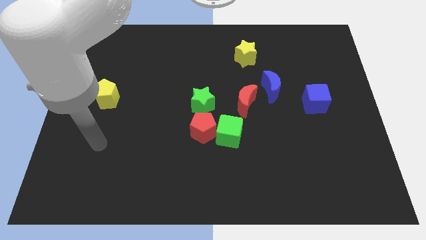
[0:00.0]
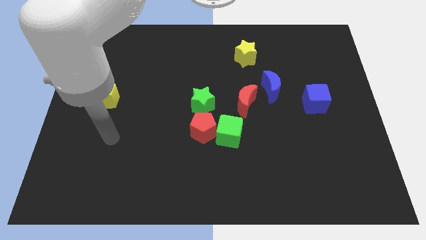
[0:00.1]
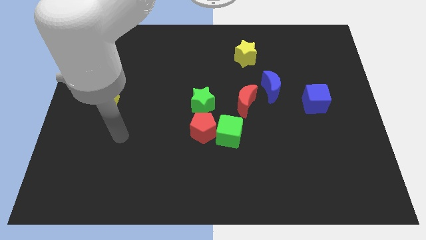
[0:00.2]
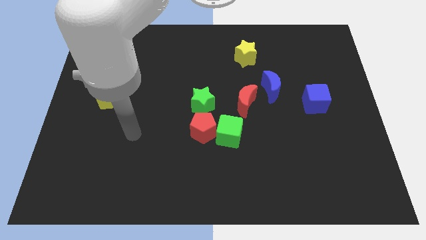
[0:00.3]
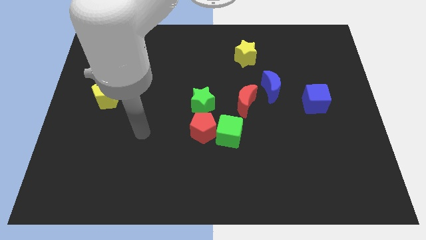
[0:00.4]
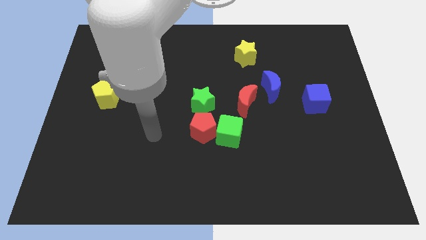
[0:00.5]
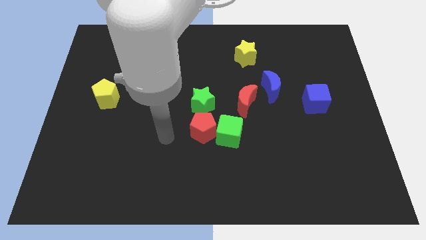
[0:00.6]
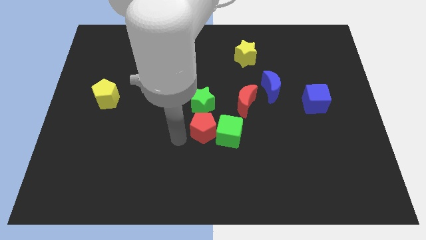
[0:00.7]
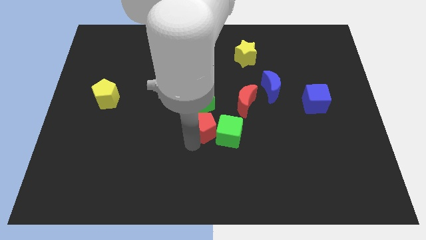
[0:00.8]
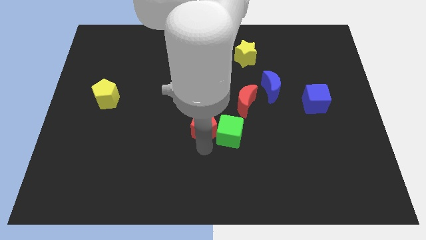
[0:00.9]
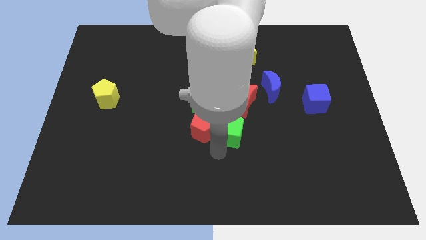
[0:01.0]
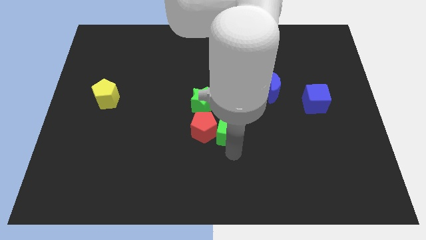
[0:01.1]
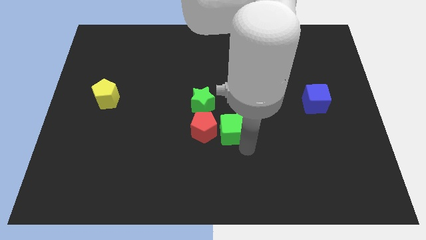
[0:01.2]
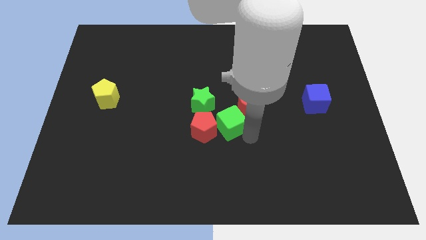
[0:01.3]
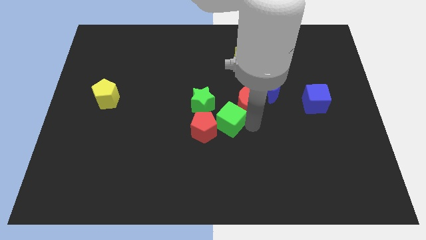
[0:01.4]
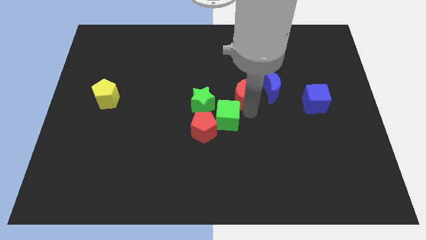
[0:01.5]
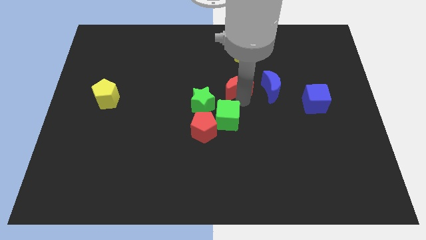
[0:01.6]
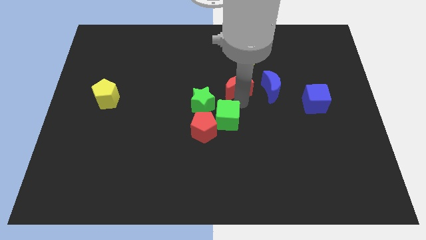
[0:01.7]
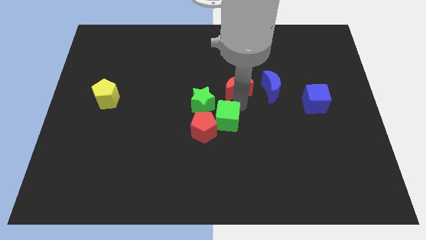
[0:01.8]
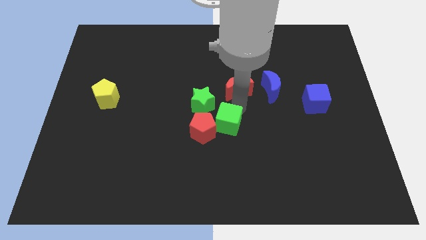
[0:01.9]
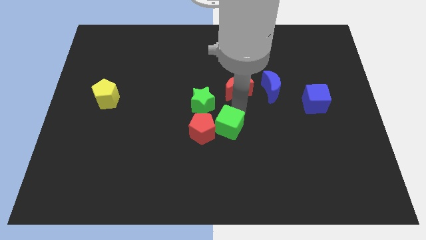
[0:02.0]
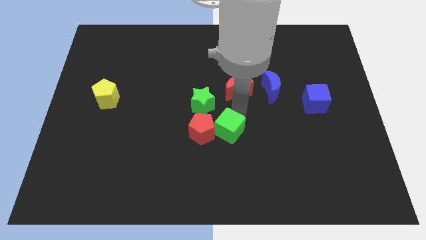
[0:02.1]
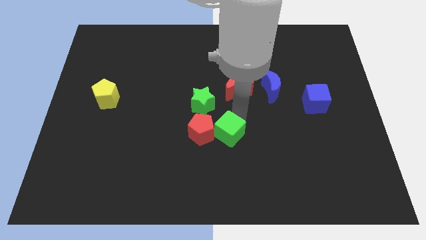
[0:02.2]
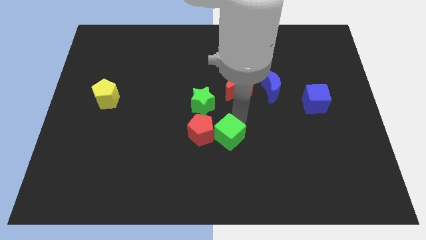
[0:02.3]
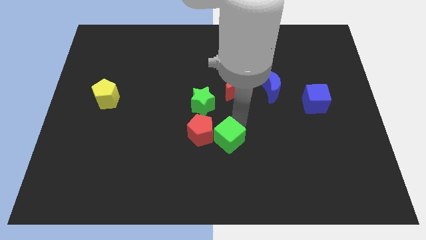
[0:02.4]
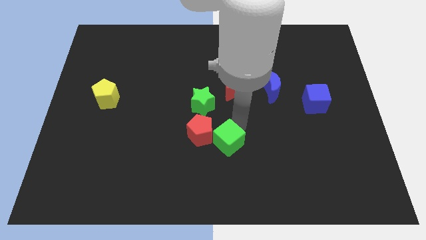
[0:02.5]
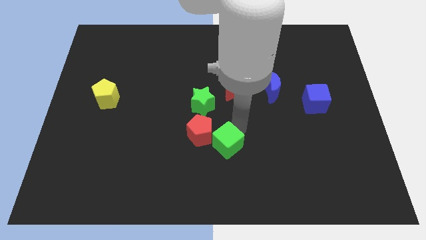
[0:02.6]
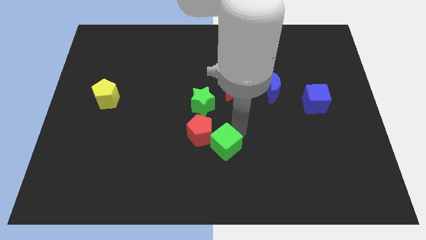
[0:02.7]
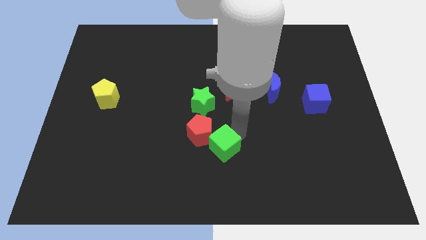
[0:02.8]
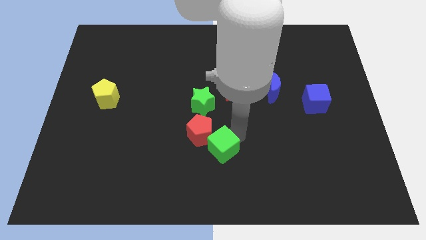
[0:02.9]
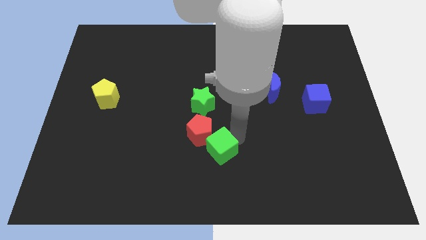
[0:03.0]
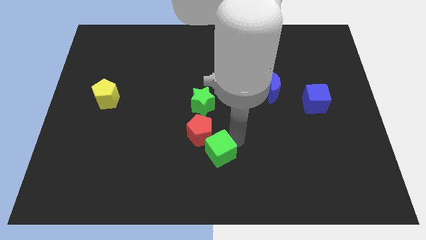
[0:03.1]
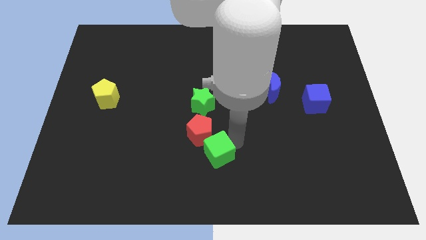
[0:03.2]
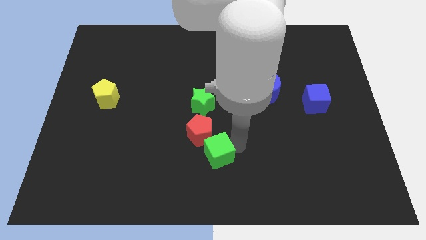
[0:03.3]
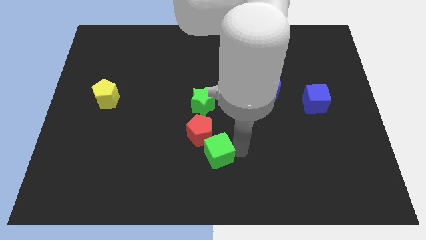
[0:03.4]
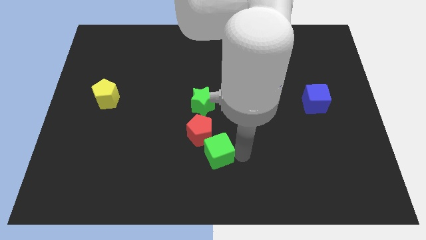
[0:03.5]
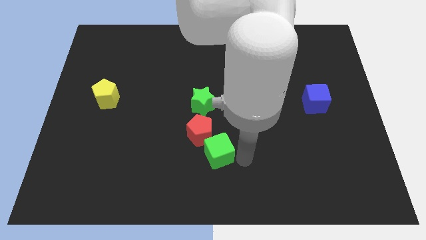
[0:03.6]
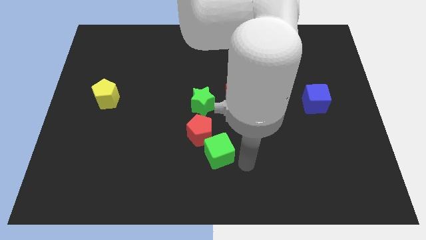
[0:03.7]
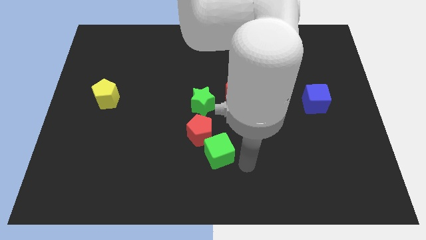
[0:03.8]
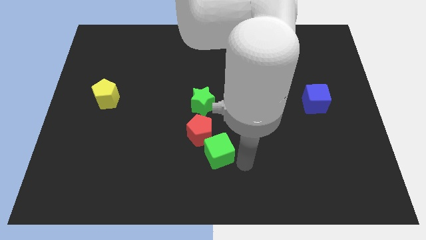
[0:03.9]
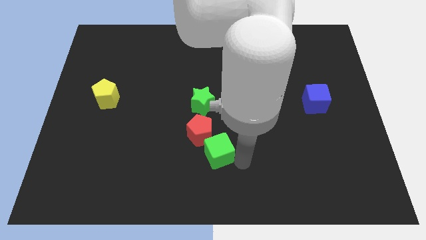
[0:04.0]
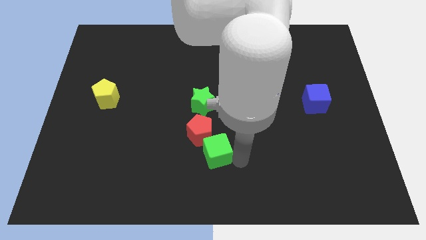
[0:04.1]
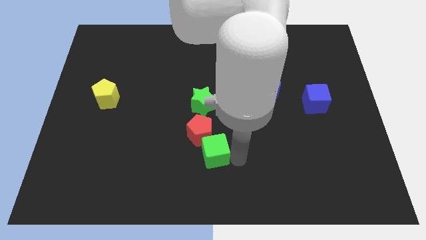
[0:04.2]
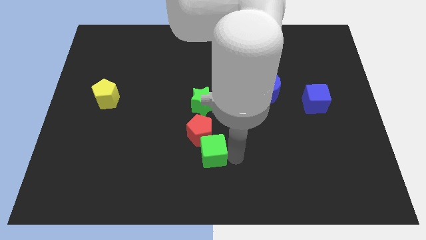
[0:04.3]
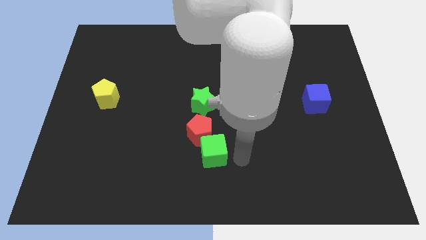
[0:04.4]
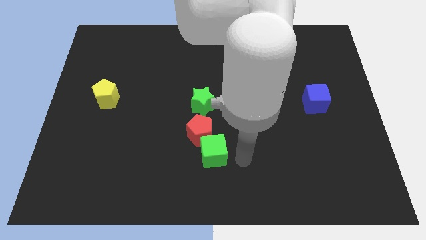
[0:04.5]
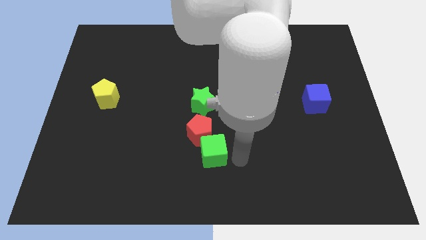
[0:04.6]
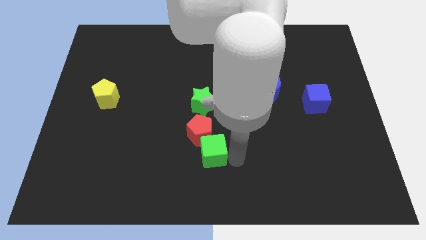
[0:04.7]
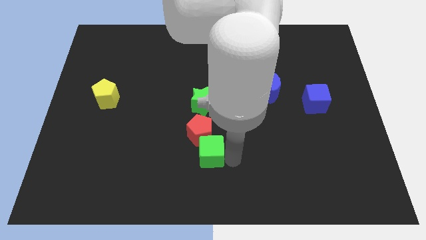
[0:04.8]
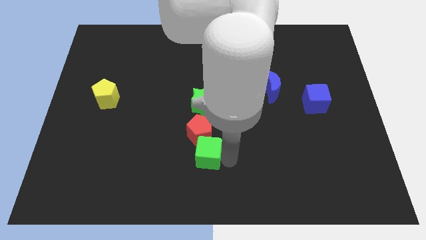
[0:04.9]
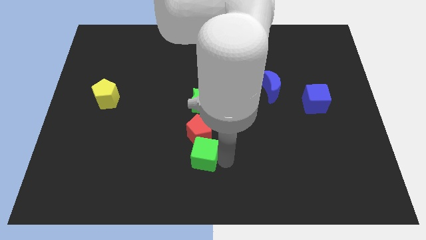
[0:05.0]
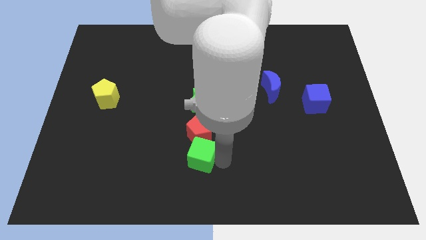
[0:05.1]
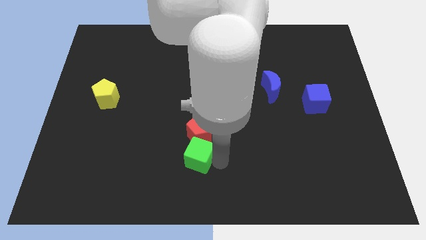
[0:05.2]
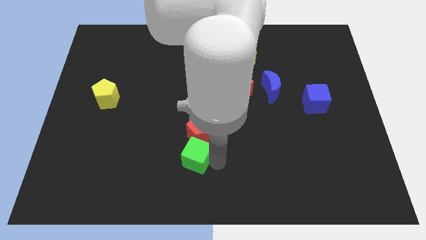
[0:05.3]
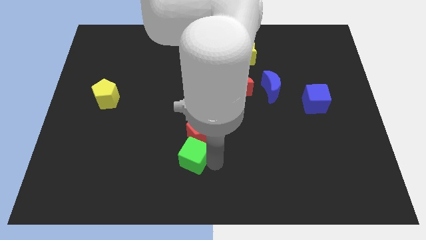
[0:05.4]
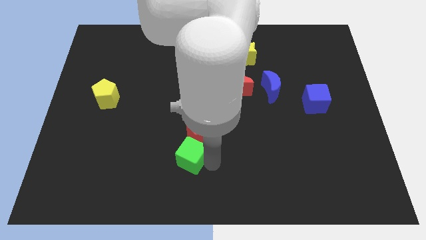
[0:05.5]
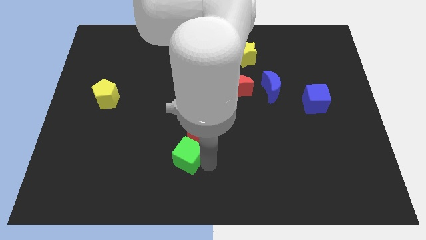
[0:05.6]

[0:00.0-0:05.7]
move the green cube to the left slightly

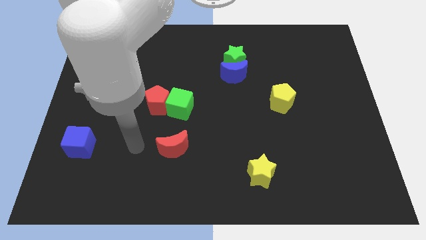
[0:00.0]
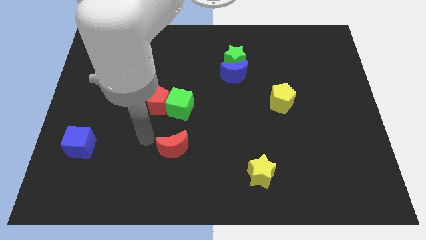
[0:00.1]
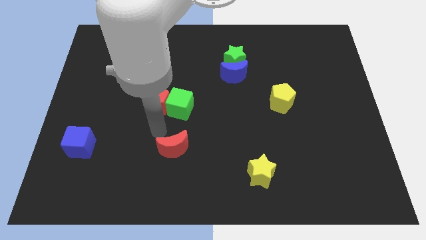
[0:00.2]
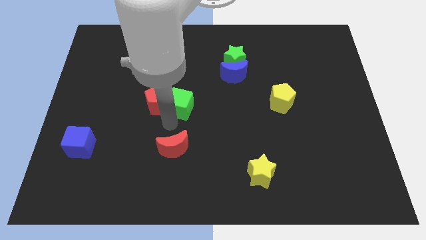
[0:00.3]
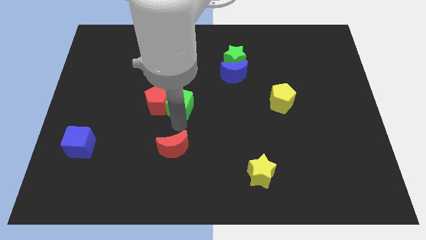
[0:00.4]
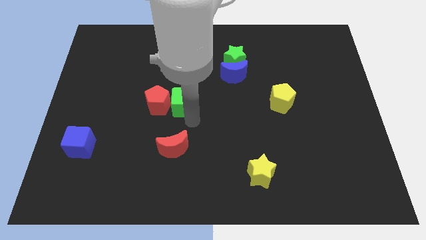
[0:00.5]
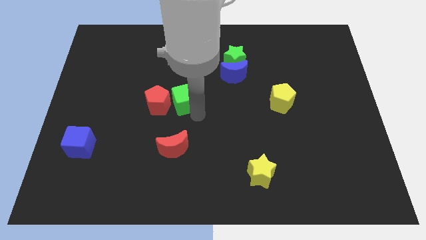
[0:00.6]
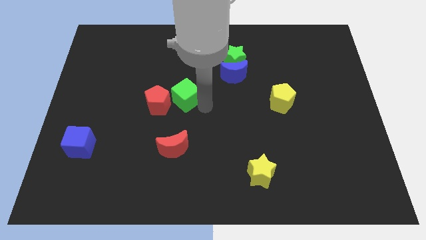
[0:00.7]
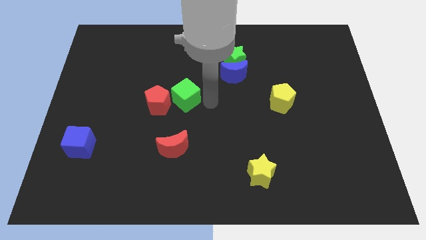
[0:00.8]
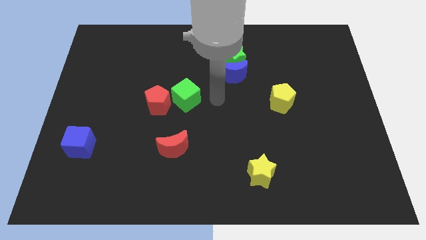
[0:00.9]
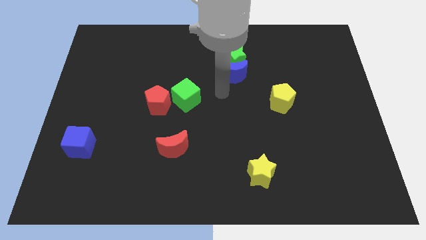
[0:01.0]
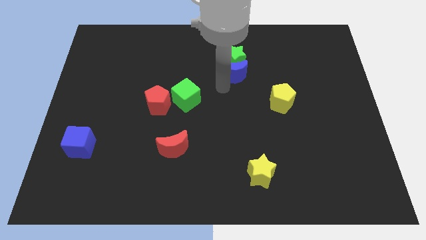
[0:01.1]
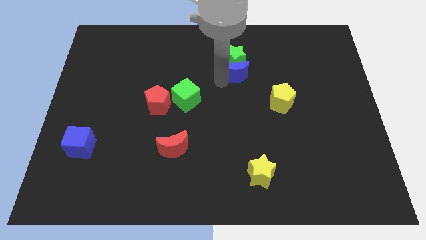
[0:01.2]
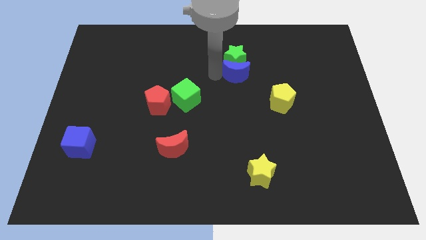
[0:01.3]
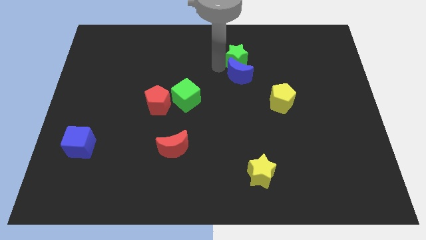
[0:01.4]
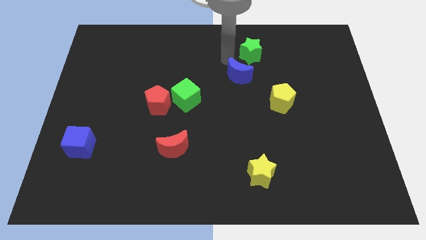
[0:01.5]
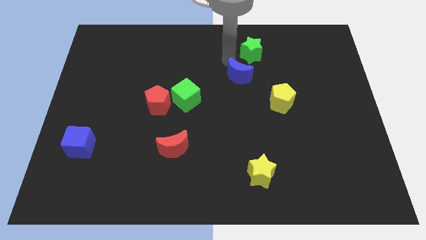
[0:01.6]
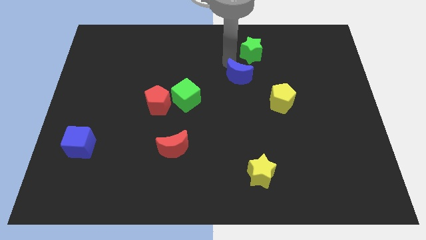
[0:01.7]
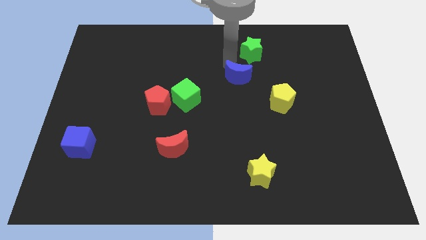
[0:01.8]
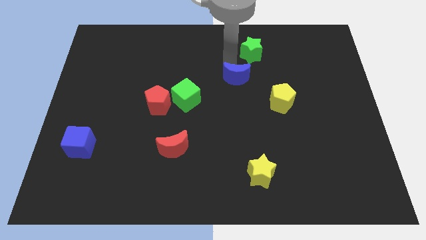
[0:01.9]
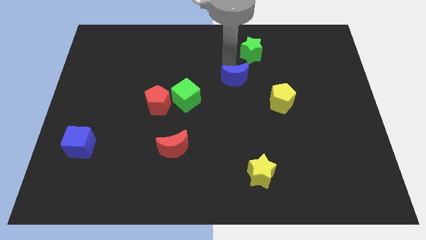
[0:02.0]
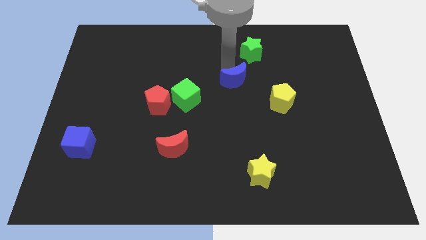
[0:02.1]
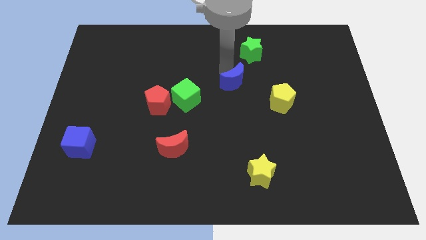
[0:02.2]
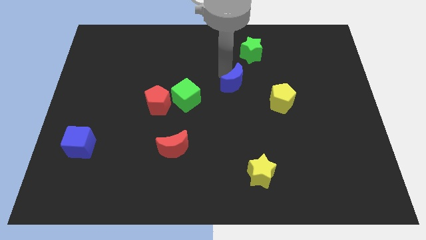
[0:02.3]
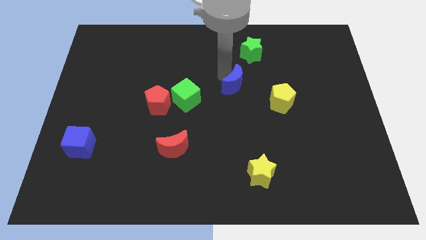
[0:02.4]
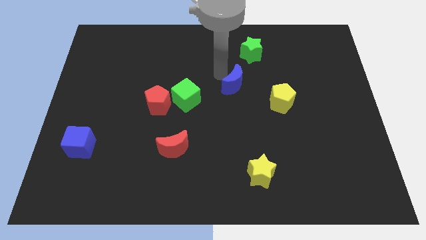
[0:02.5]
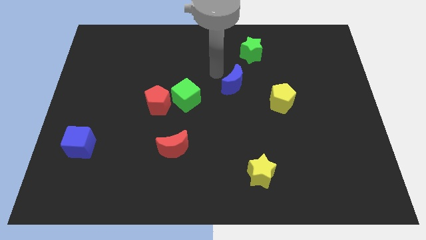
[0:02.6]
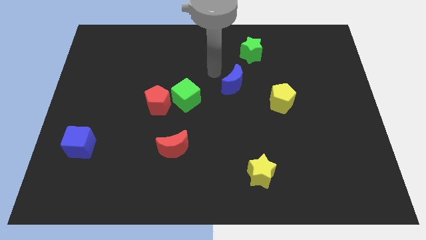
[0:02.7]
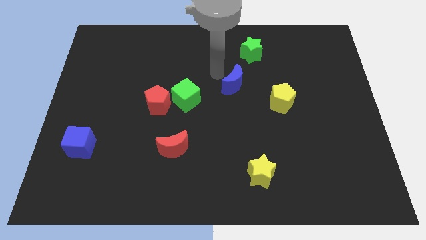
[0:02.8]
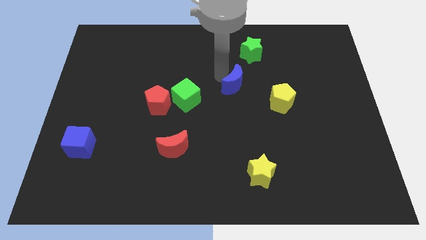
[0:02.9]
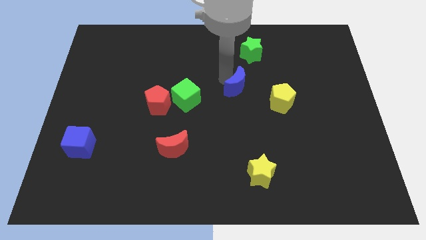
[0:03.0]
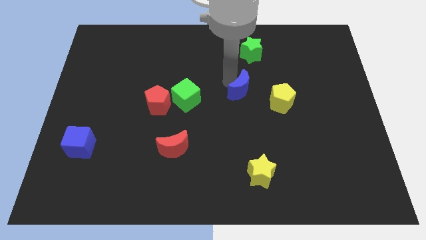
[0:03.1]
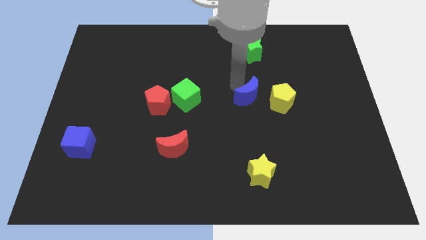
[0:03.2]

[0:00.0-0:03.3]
slide the blue moon somewhat down and then to the right
